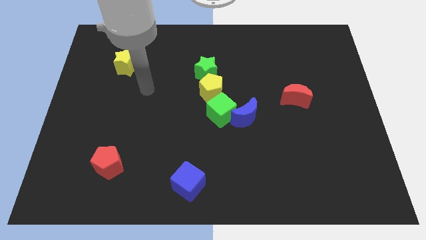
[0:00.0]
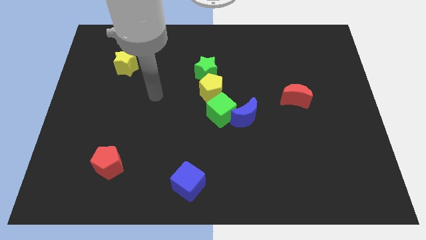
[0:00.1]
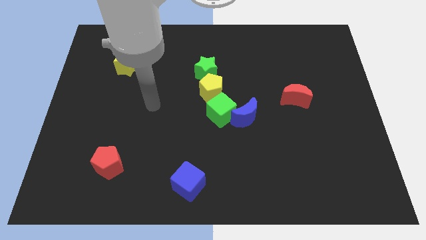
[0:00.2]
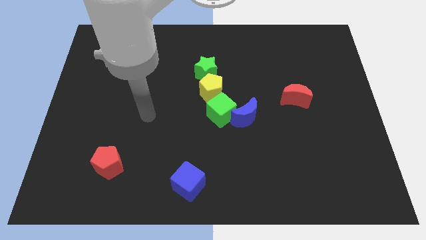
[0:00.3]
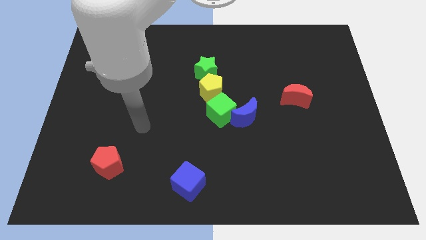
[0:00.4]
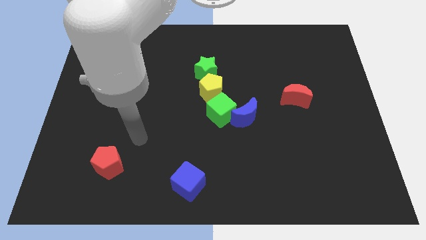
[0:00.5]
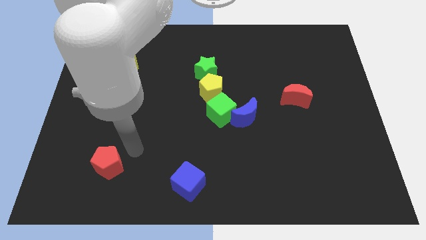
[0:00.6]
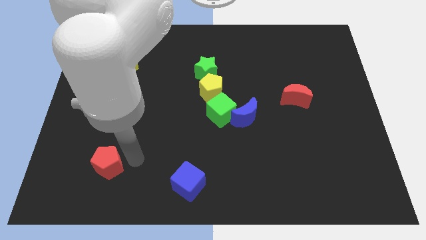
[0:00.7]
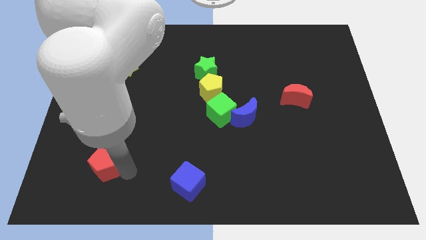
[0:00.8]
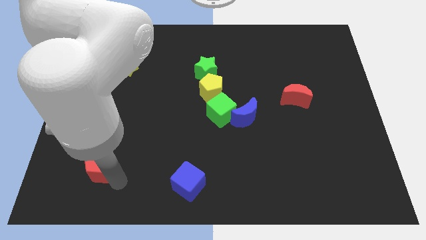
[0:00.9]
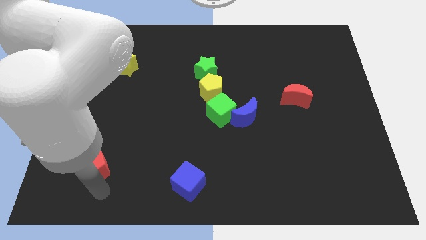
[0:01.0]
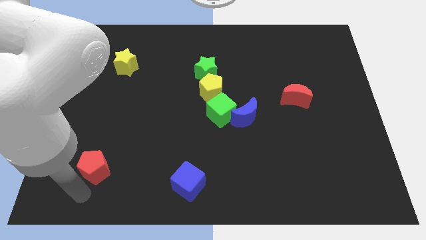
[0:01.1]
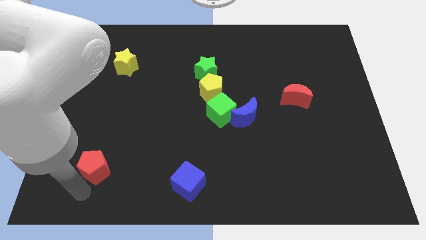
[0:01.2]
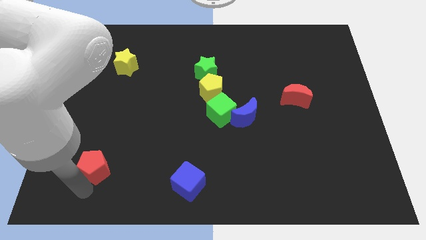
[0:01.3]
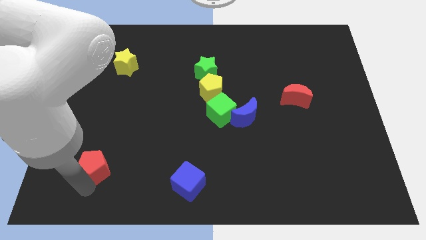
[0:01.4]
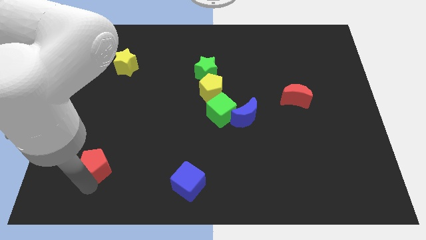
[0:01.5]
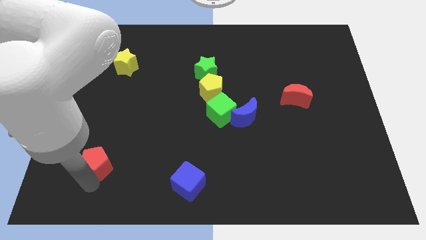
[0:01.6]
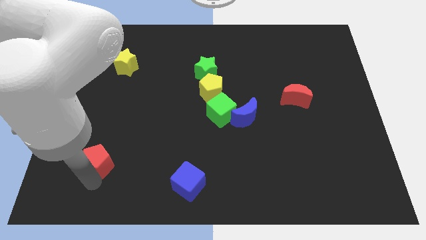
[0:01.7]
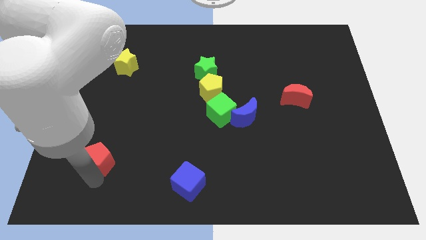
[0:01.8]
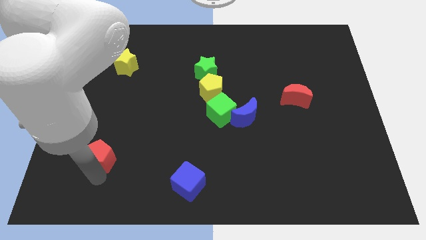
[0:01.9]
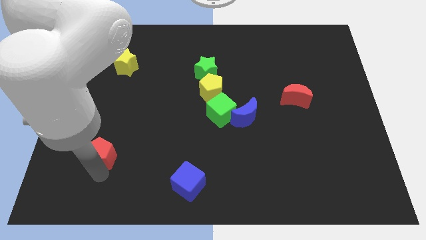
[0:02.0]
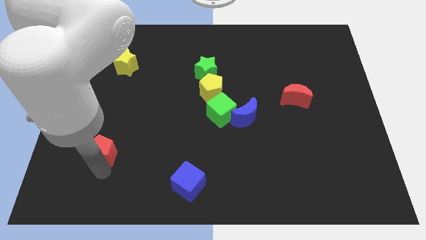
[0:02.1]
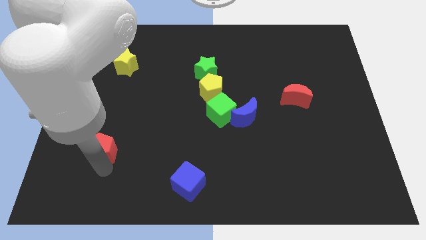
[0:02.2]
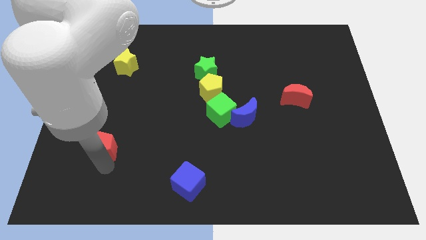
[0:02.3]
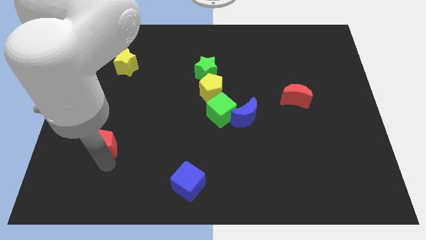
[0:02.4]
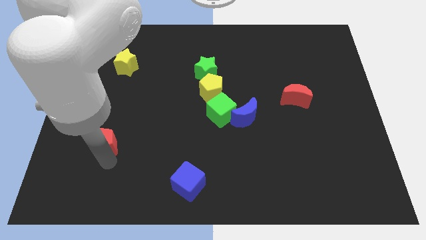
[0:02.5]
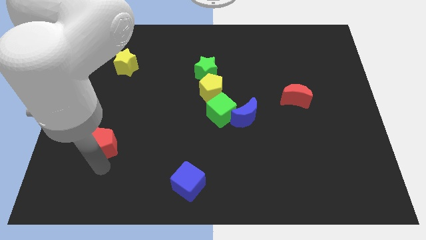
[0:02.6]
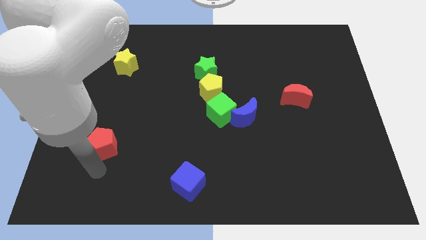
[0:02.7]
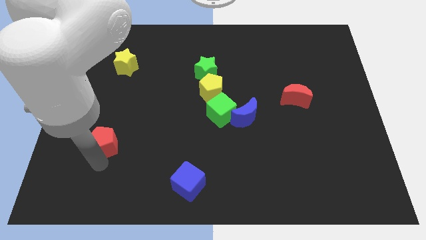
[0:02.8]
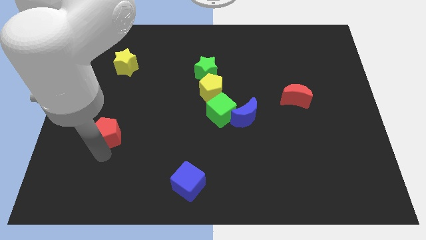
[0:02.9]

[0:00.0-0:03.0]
move the red pentagon upwards a bit

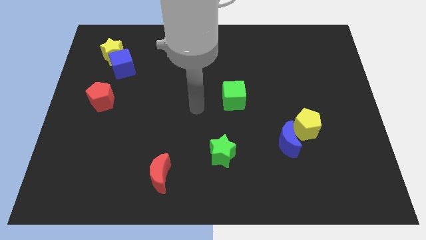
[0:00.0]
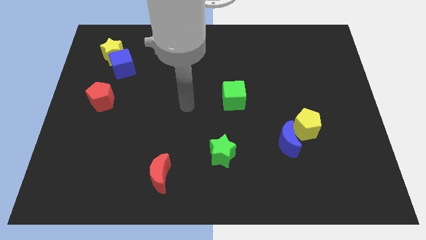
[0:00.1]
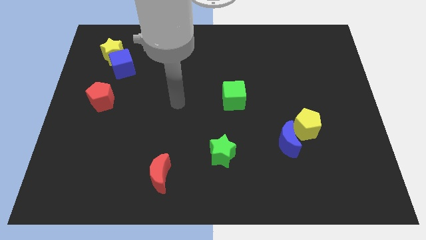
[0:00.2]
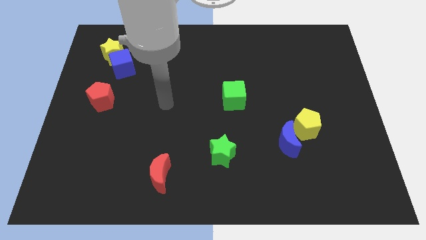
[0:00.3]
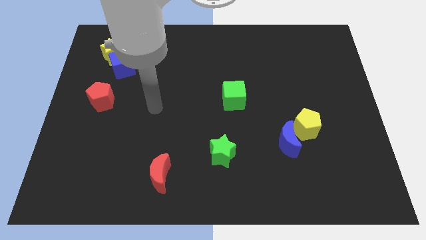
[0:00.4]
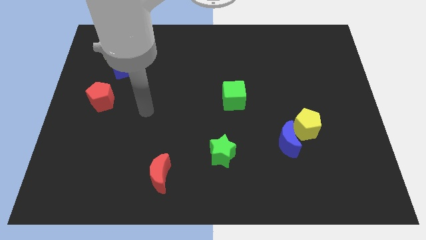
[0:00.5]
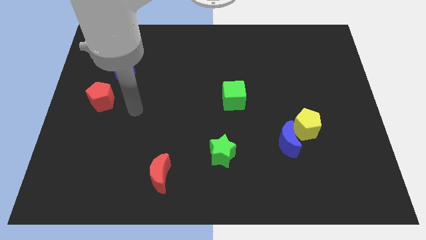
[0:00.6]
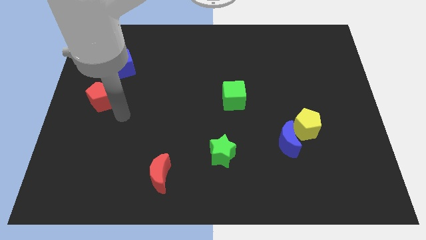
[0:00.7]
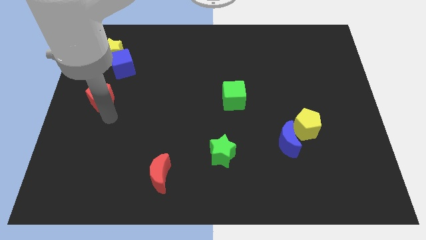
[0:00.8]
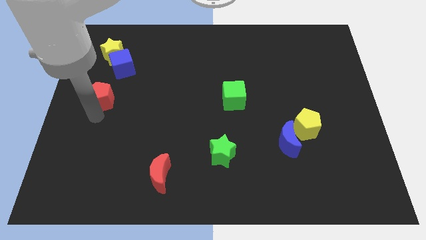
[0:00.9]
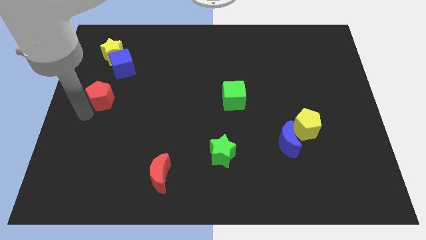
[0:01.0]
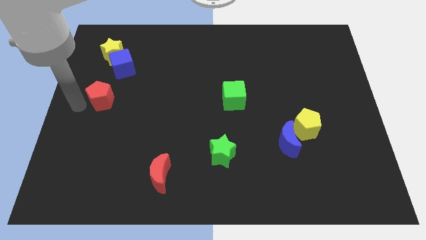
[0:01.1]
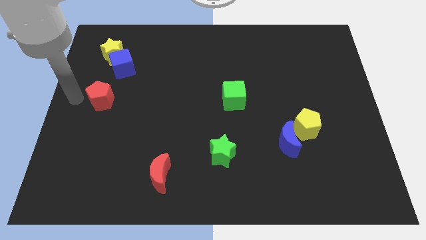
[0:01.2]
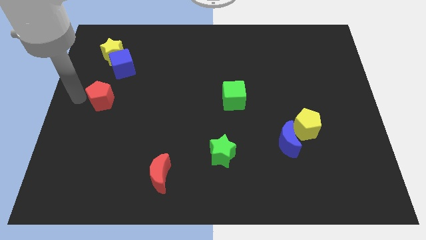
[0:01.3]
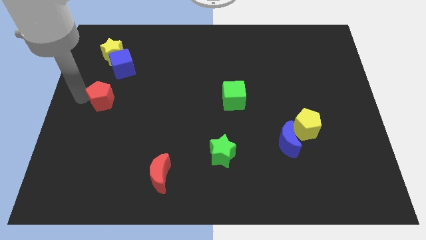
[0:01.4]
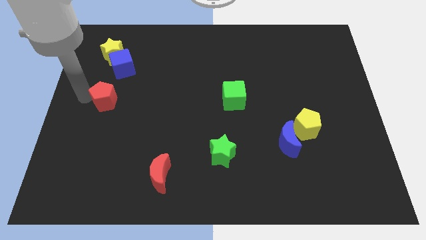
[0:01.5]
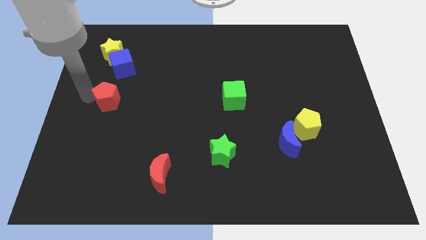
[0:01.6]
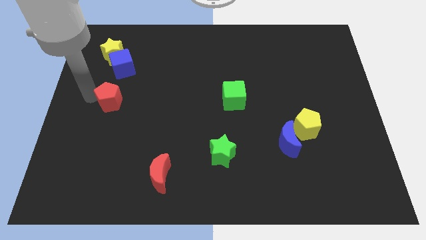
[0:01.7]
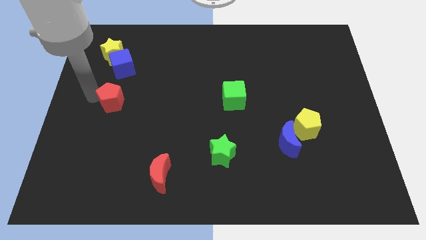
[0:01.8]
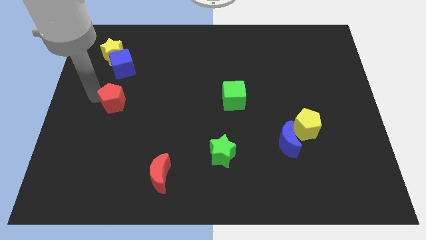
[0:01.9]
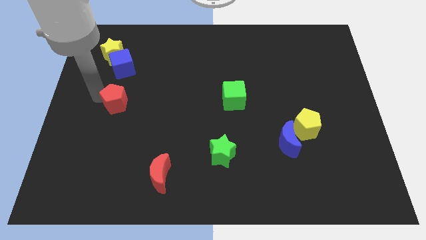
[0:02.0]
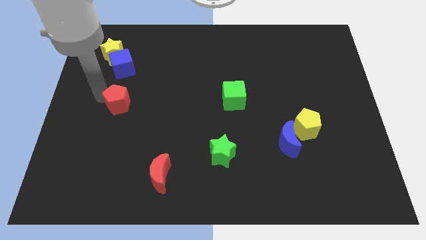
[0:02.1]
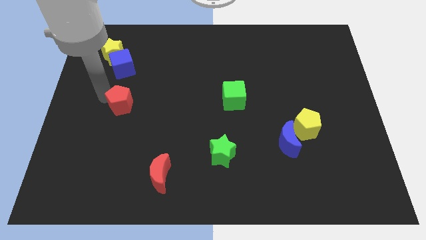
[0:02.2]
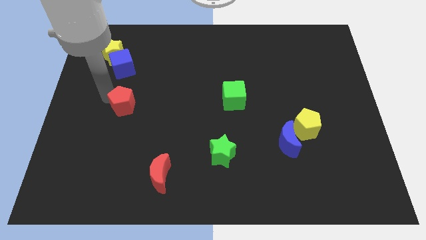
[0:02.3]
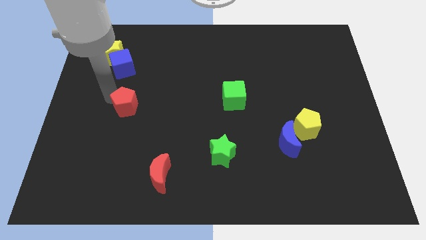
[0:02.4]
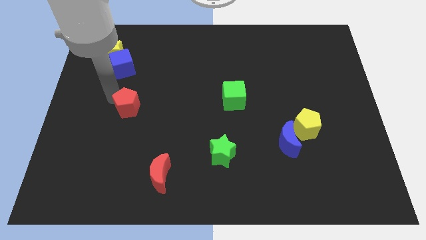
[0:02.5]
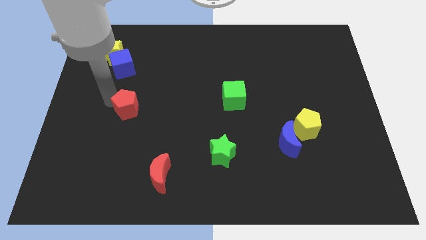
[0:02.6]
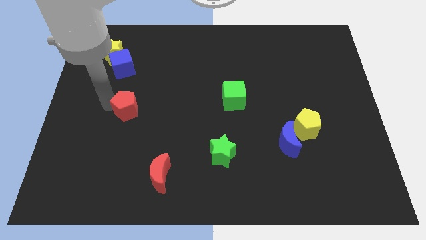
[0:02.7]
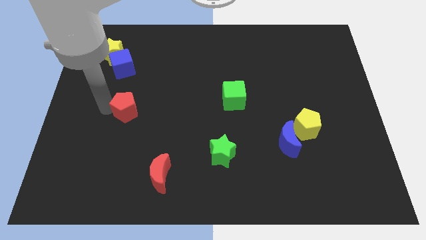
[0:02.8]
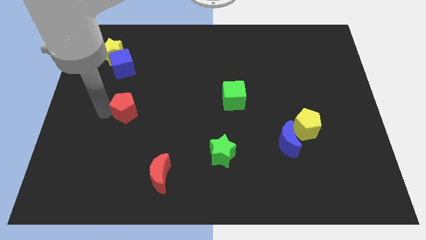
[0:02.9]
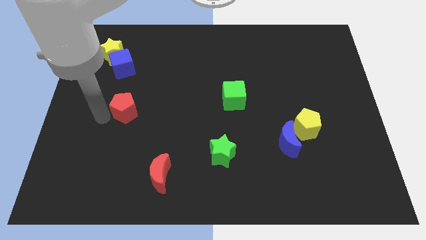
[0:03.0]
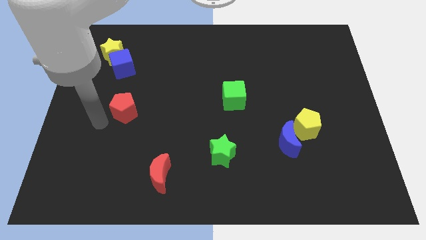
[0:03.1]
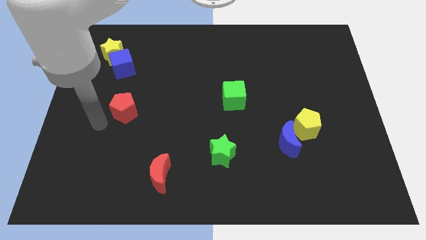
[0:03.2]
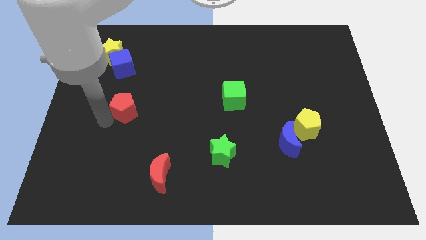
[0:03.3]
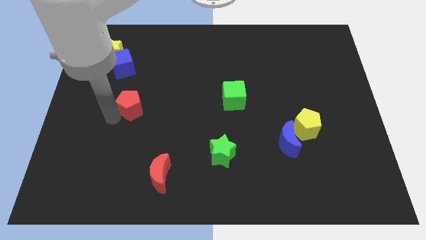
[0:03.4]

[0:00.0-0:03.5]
slide the red pentagon slightly to the right

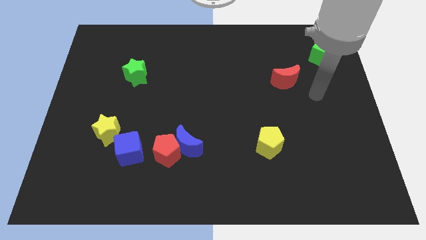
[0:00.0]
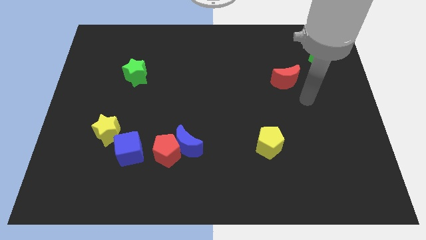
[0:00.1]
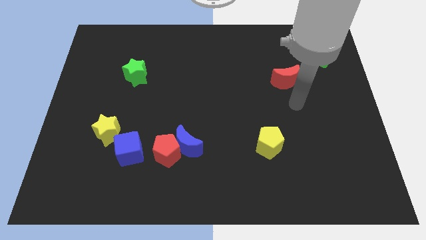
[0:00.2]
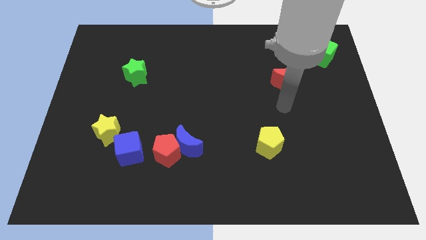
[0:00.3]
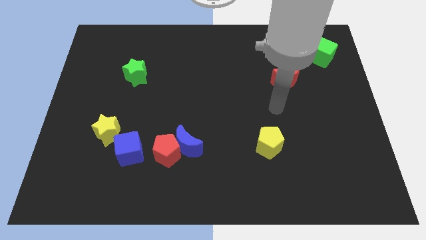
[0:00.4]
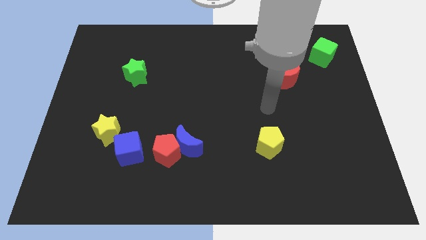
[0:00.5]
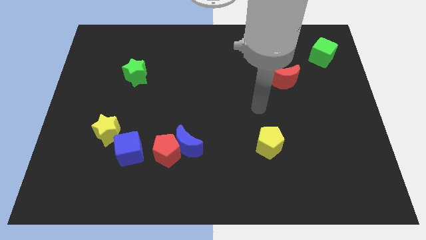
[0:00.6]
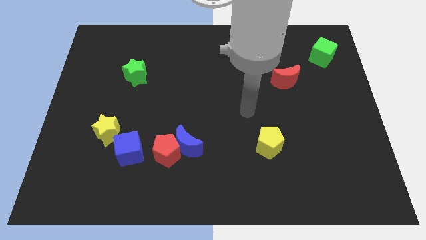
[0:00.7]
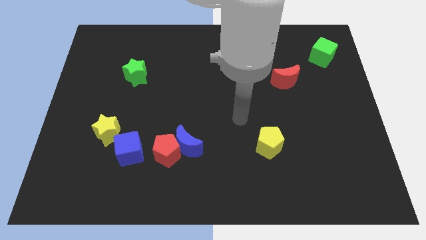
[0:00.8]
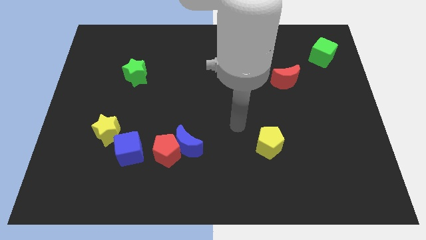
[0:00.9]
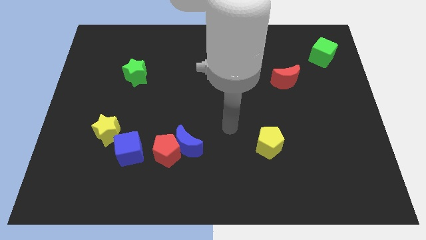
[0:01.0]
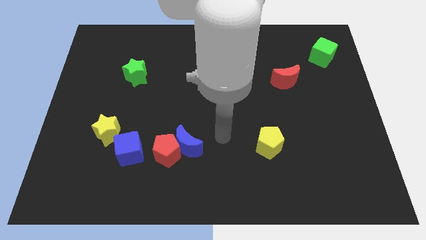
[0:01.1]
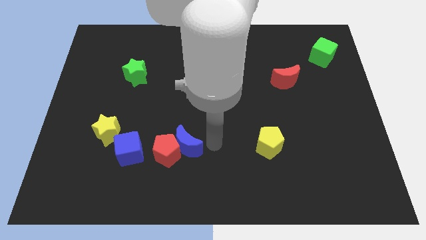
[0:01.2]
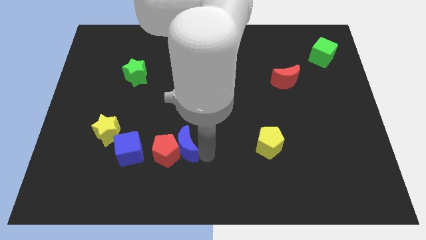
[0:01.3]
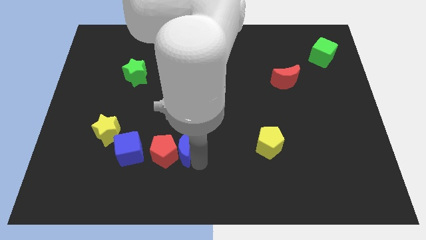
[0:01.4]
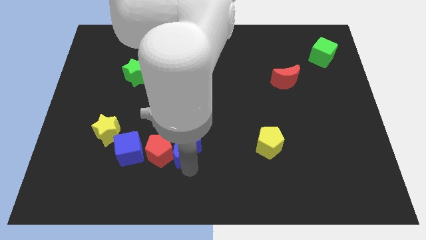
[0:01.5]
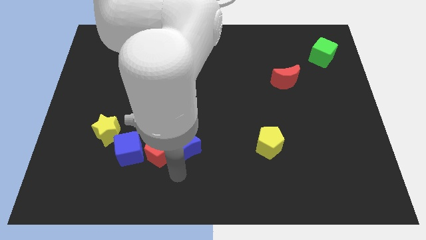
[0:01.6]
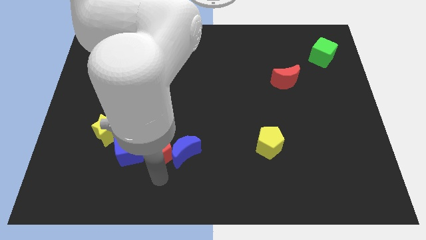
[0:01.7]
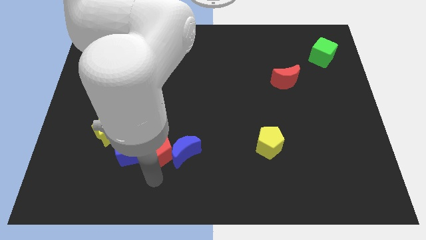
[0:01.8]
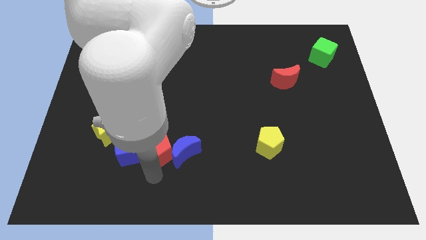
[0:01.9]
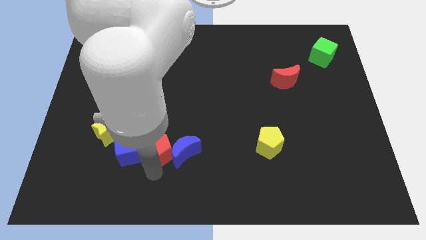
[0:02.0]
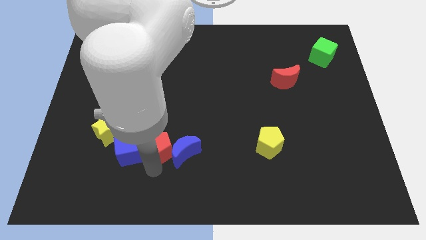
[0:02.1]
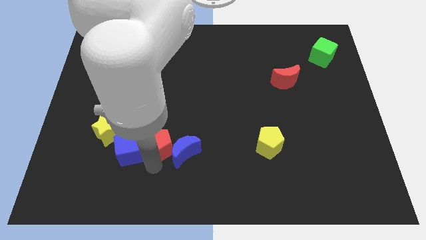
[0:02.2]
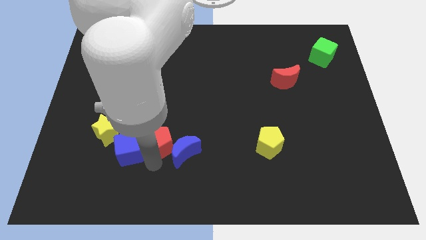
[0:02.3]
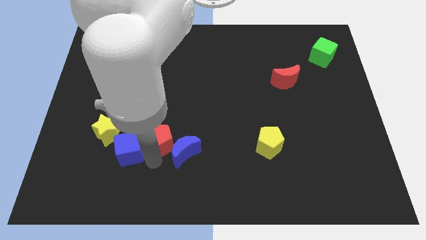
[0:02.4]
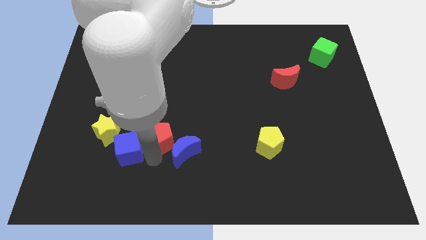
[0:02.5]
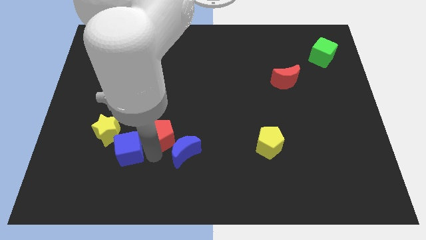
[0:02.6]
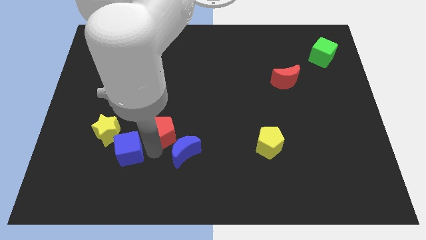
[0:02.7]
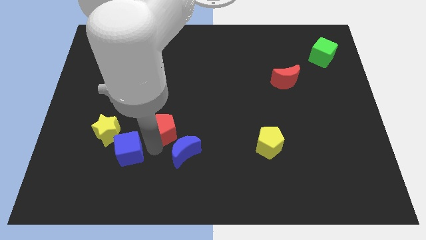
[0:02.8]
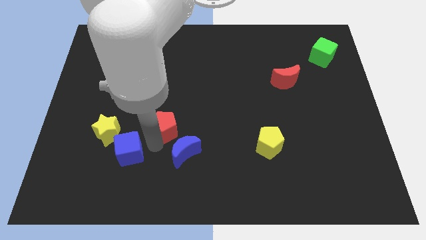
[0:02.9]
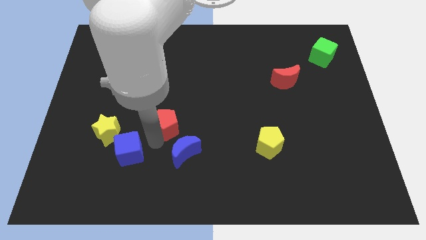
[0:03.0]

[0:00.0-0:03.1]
push the red pentagon a bit upwards
